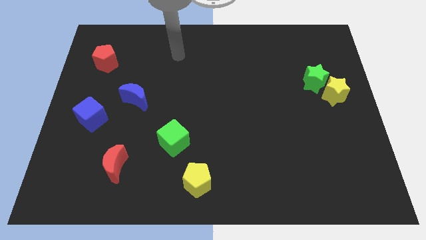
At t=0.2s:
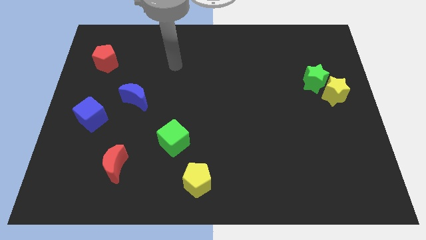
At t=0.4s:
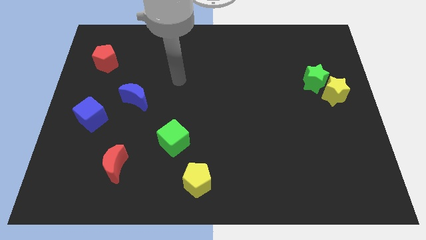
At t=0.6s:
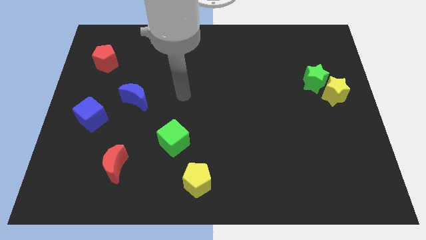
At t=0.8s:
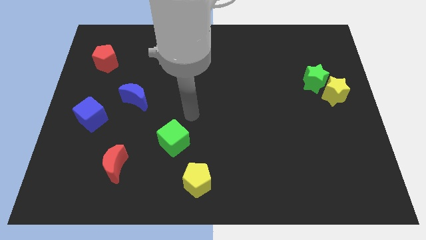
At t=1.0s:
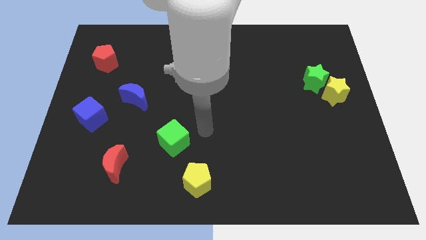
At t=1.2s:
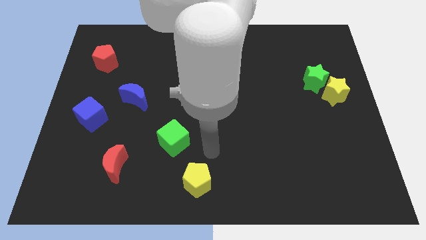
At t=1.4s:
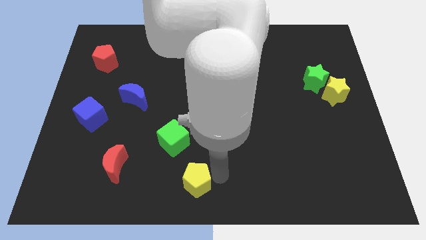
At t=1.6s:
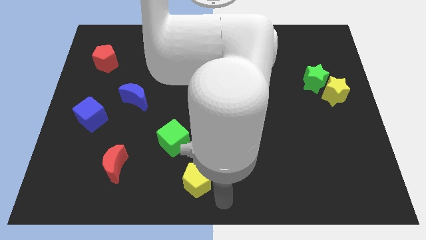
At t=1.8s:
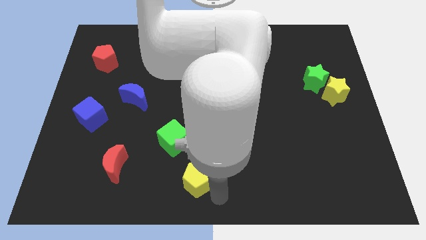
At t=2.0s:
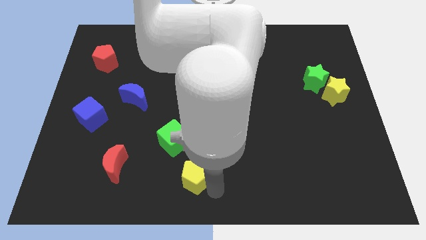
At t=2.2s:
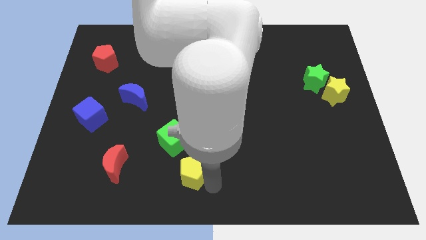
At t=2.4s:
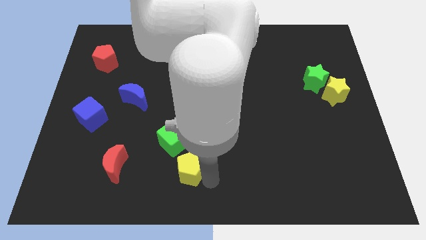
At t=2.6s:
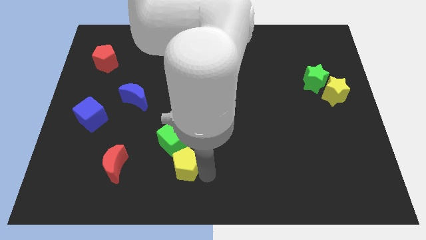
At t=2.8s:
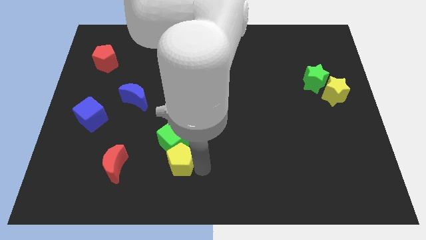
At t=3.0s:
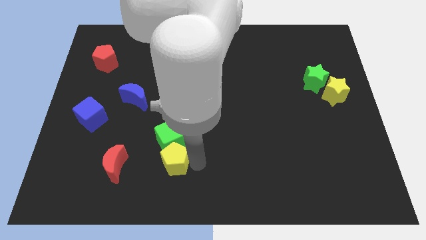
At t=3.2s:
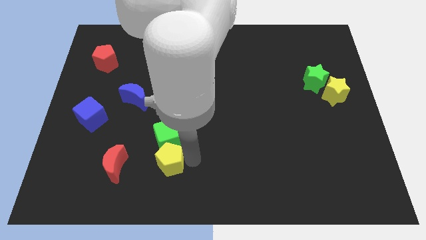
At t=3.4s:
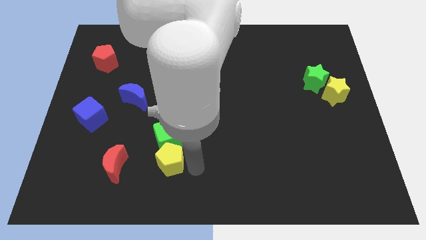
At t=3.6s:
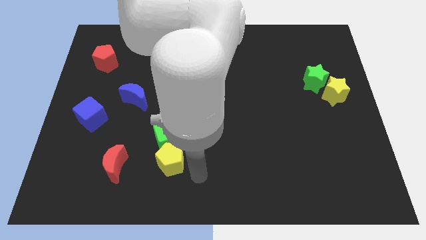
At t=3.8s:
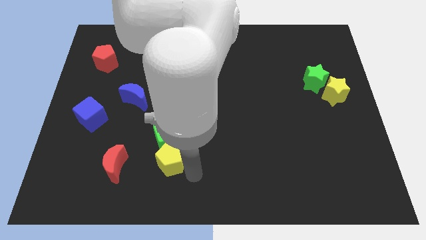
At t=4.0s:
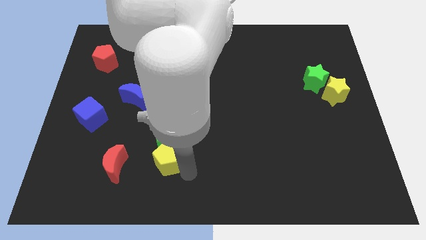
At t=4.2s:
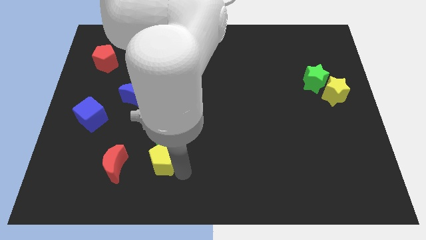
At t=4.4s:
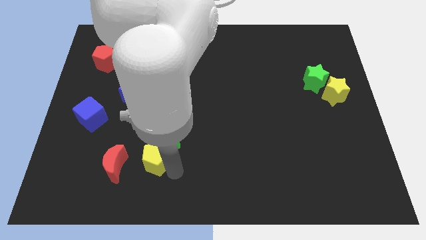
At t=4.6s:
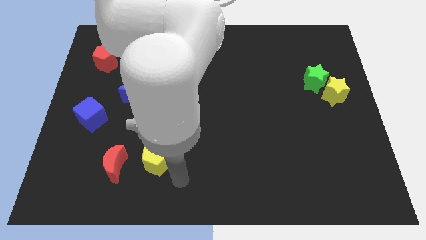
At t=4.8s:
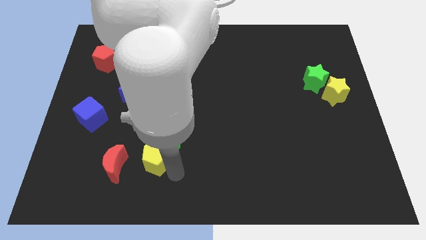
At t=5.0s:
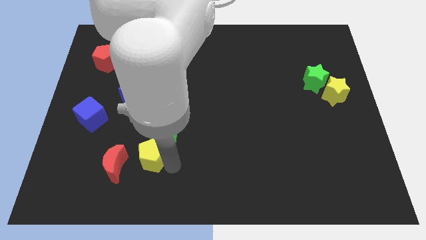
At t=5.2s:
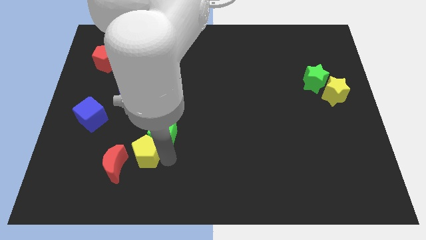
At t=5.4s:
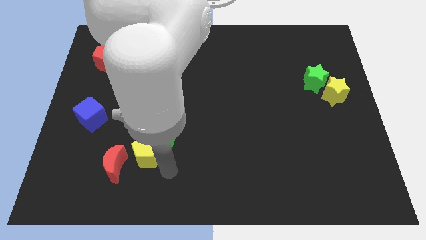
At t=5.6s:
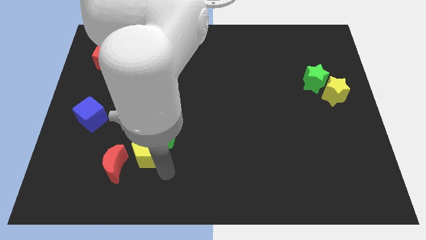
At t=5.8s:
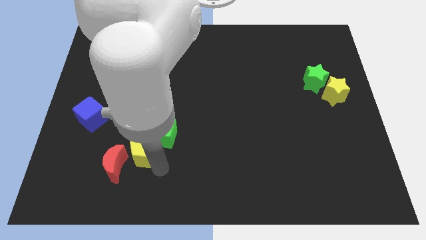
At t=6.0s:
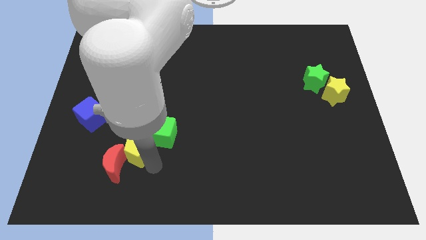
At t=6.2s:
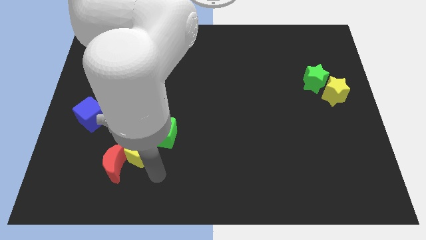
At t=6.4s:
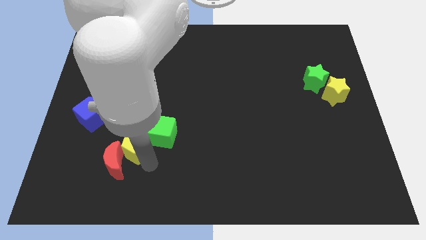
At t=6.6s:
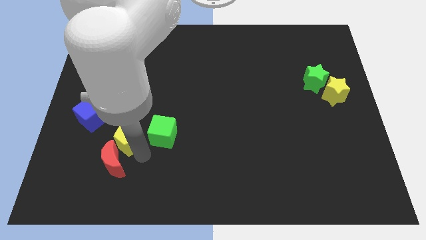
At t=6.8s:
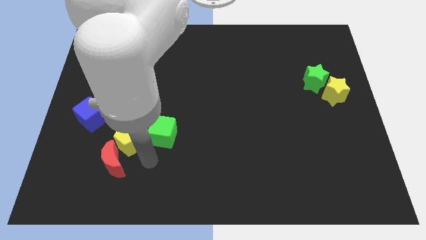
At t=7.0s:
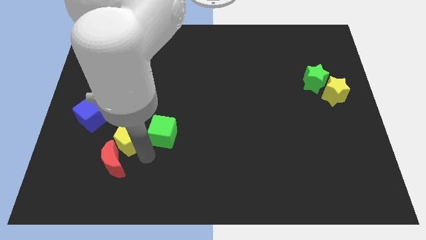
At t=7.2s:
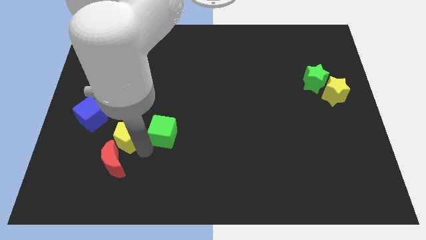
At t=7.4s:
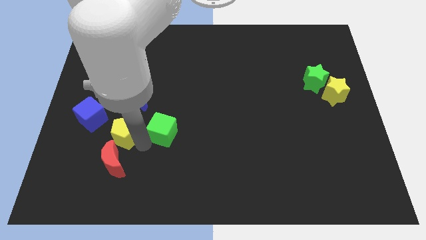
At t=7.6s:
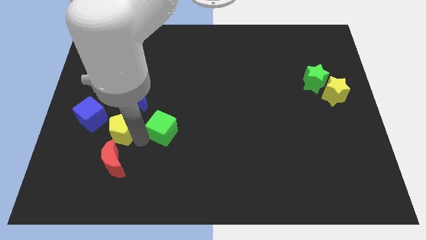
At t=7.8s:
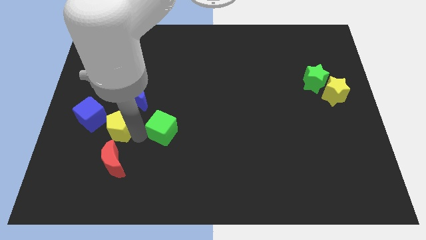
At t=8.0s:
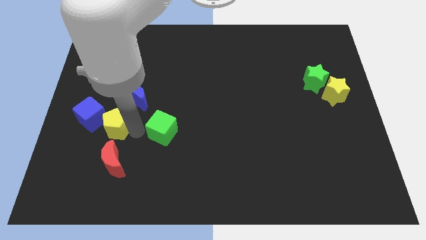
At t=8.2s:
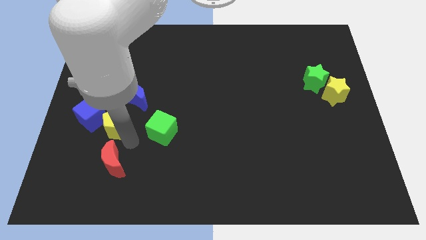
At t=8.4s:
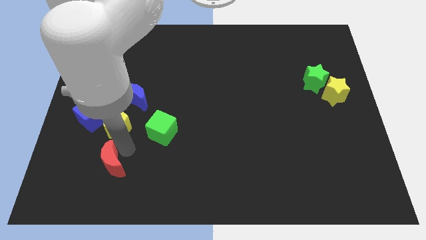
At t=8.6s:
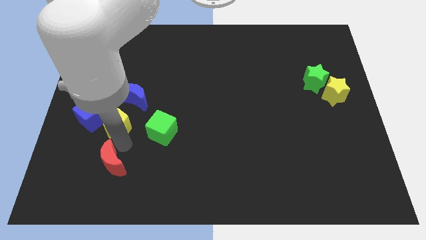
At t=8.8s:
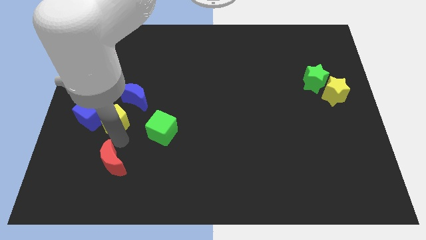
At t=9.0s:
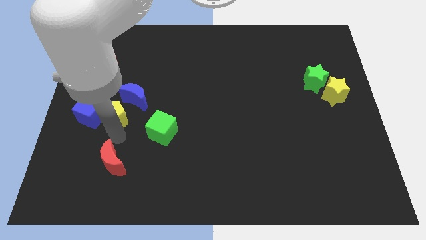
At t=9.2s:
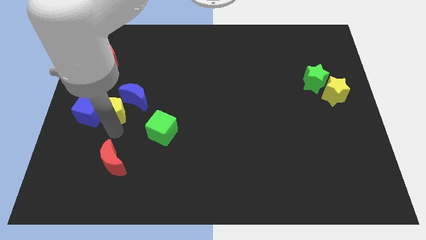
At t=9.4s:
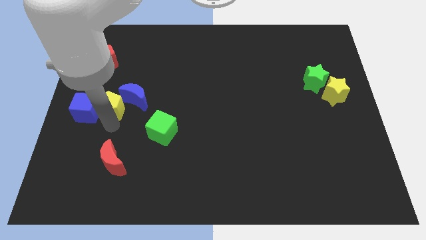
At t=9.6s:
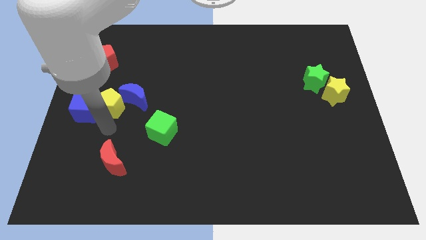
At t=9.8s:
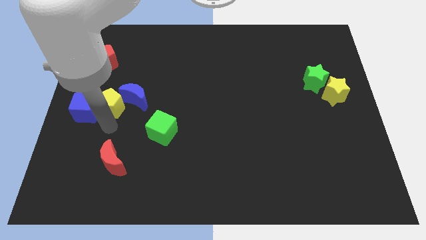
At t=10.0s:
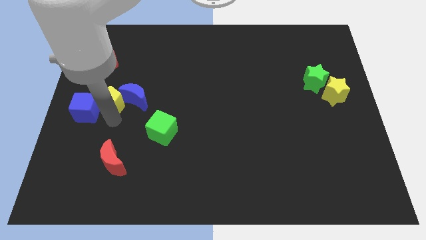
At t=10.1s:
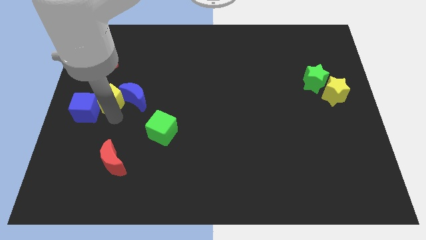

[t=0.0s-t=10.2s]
slide the yellow pentagon to the top left side of the blue moon

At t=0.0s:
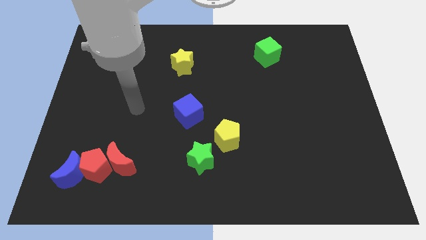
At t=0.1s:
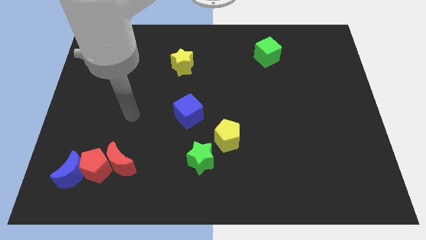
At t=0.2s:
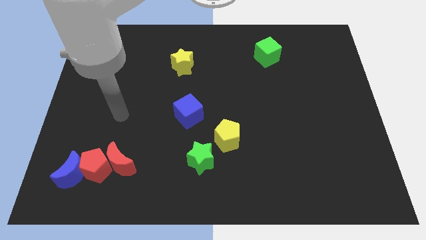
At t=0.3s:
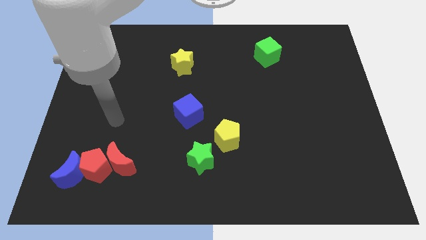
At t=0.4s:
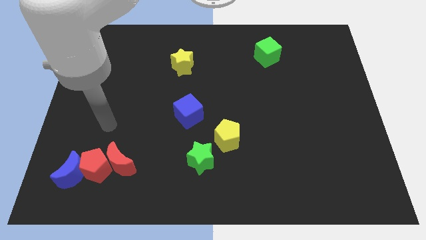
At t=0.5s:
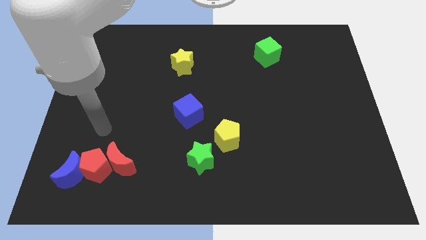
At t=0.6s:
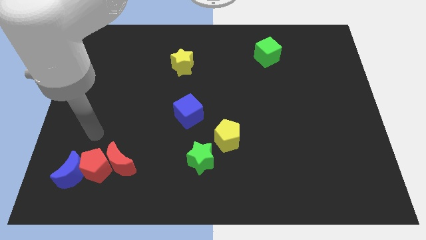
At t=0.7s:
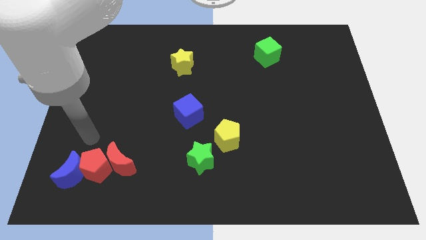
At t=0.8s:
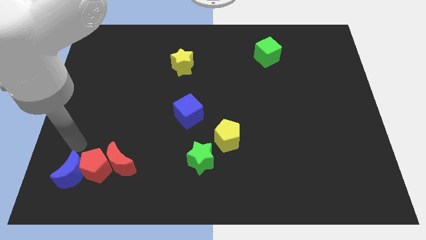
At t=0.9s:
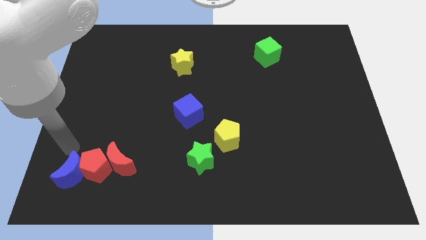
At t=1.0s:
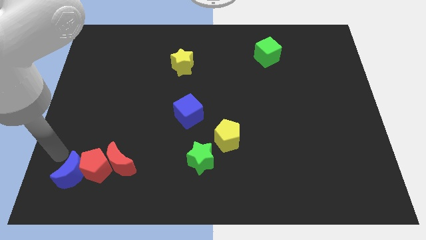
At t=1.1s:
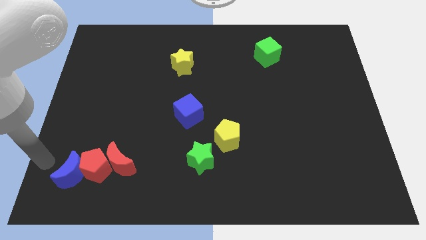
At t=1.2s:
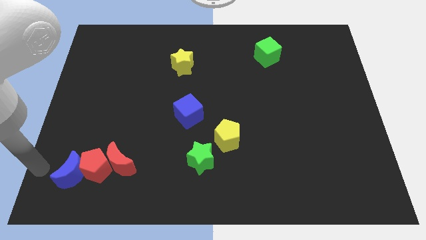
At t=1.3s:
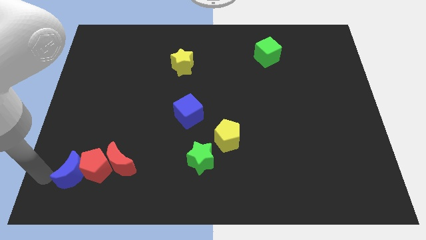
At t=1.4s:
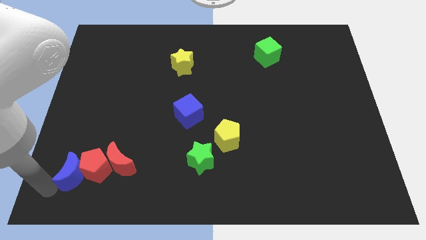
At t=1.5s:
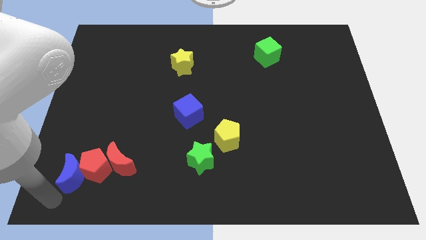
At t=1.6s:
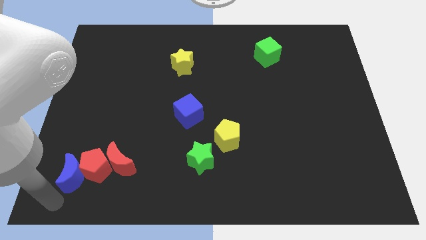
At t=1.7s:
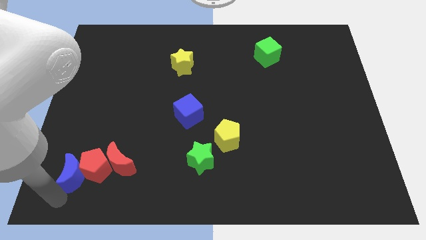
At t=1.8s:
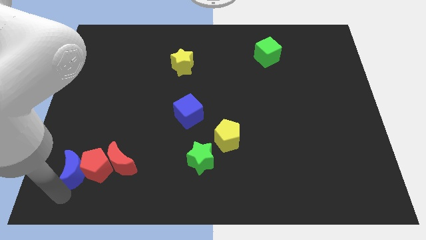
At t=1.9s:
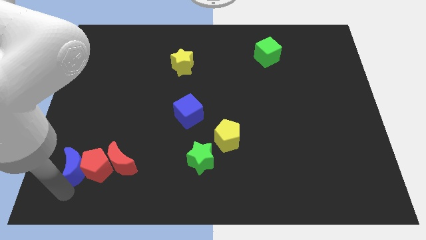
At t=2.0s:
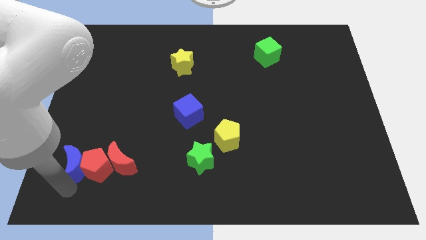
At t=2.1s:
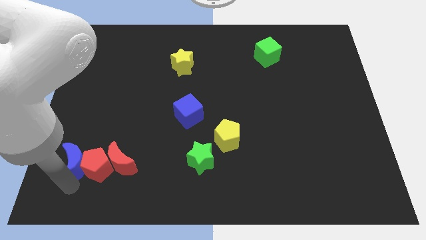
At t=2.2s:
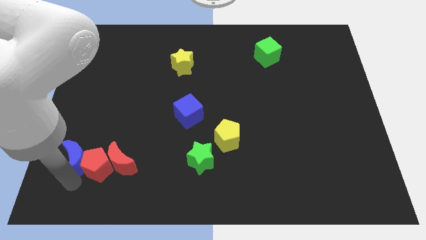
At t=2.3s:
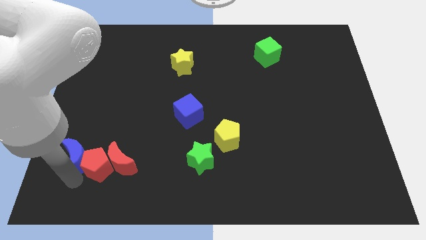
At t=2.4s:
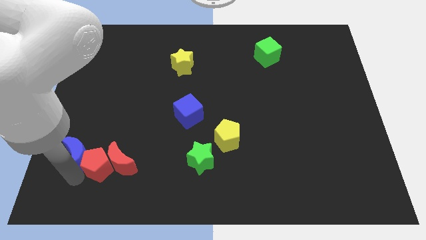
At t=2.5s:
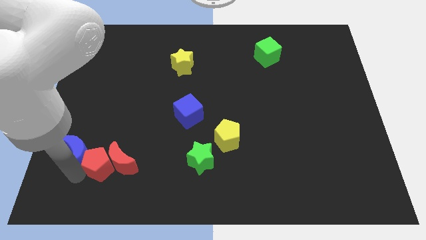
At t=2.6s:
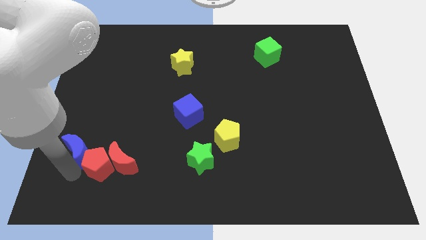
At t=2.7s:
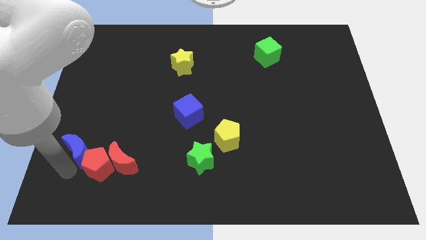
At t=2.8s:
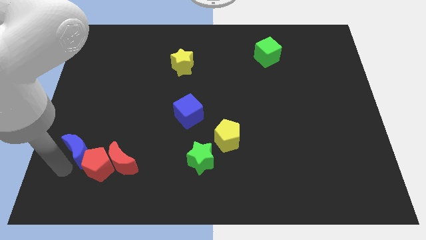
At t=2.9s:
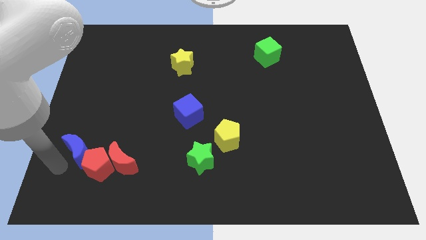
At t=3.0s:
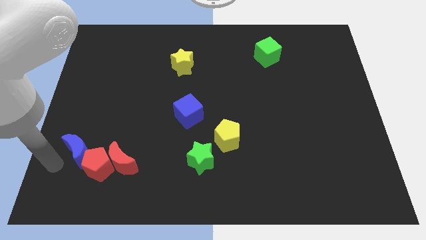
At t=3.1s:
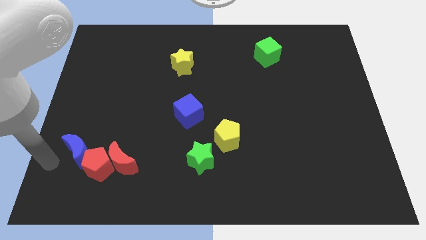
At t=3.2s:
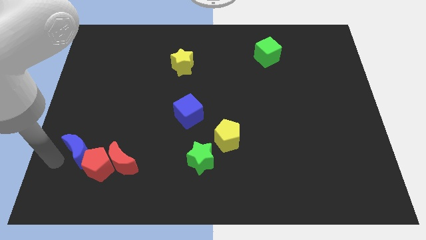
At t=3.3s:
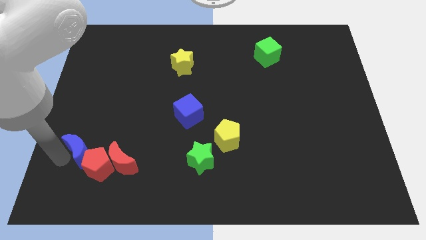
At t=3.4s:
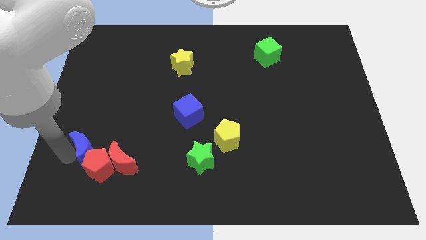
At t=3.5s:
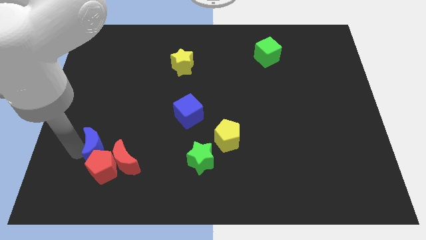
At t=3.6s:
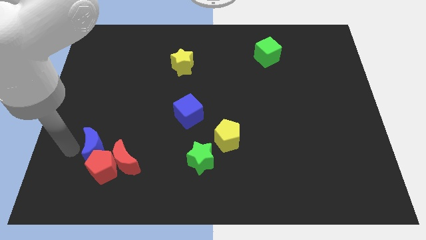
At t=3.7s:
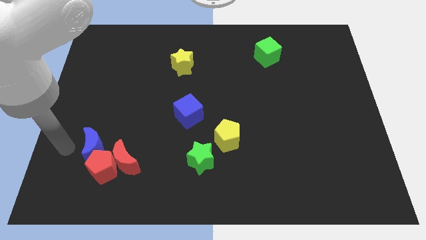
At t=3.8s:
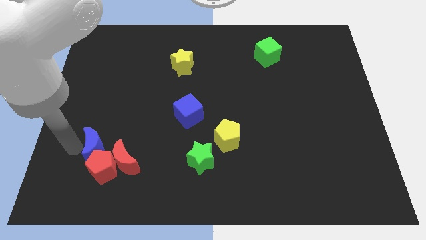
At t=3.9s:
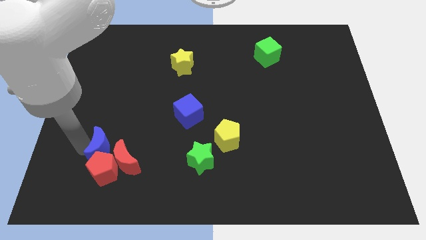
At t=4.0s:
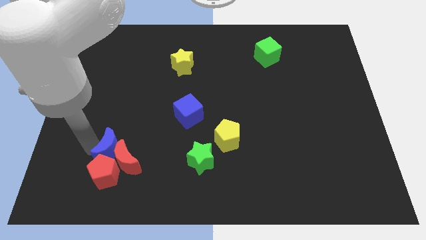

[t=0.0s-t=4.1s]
push the blue moon diagonally up and to the right of the red pentagon
